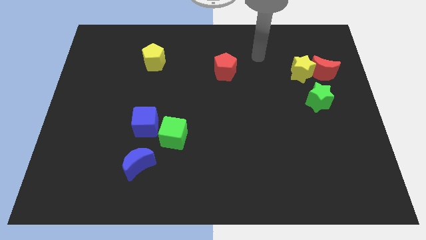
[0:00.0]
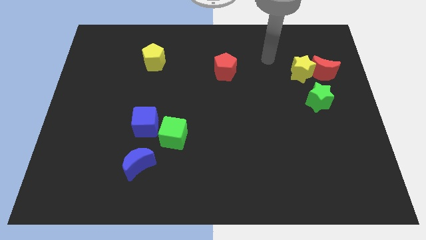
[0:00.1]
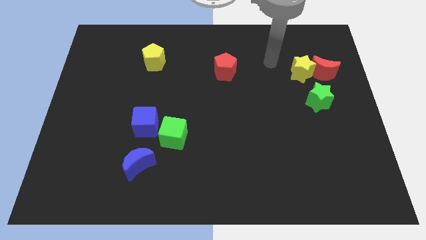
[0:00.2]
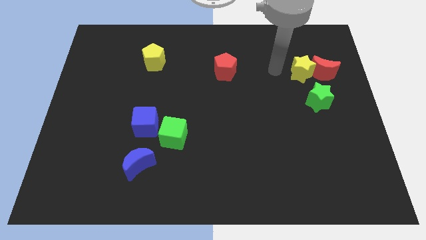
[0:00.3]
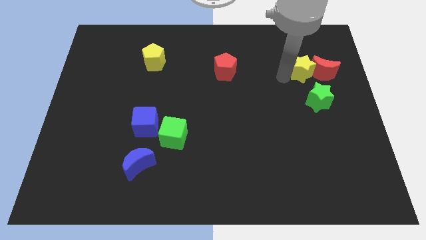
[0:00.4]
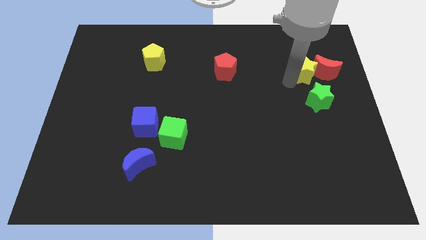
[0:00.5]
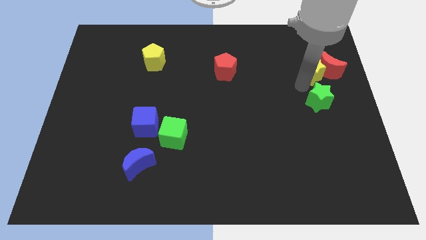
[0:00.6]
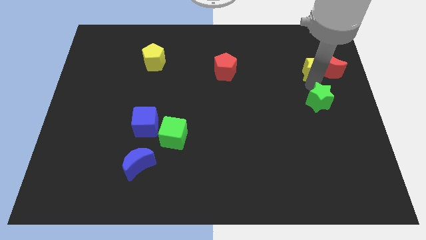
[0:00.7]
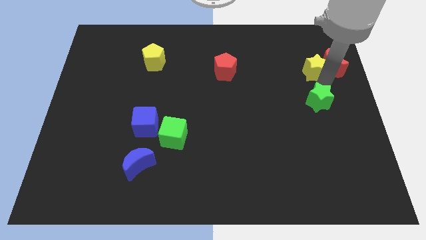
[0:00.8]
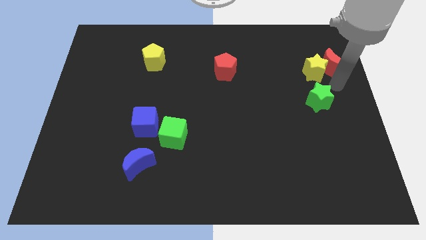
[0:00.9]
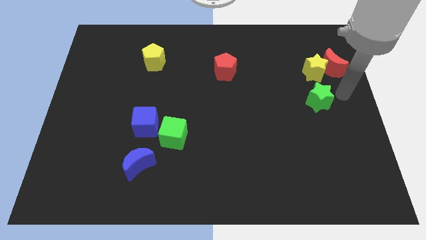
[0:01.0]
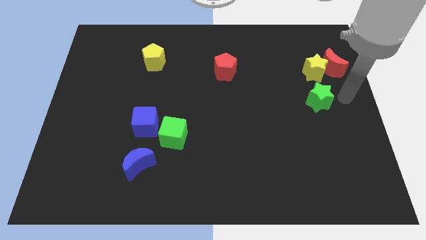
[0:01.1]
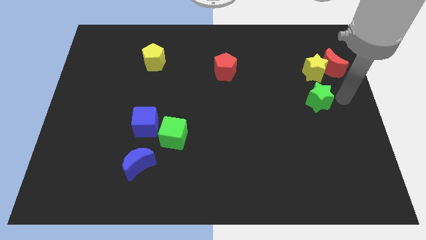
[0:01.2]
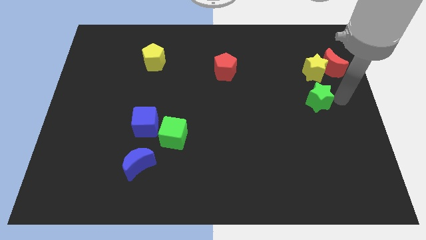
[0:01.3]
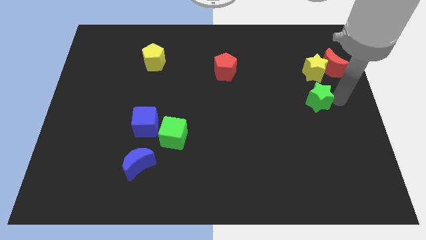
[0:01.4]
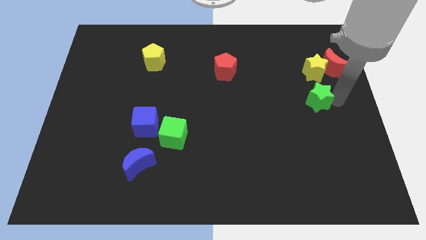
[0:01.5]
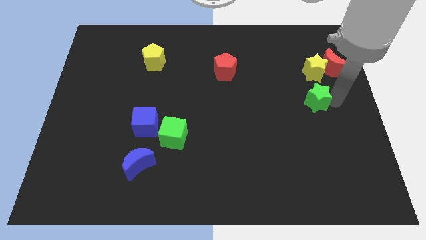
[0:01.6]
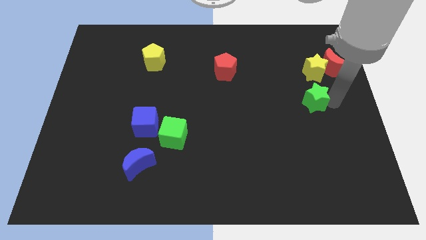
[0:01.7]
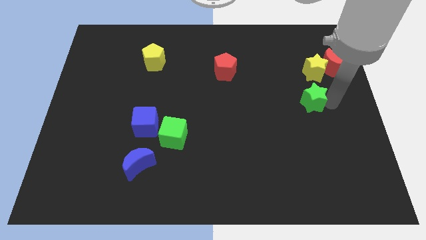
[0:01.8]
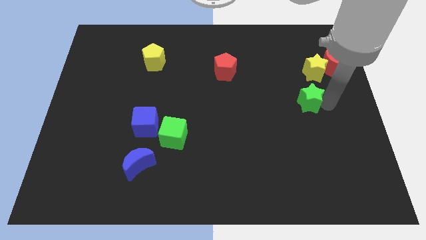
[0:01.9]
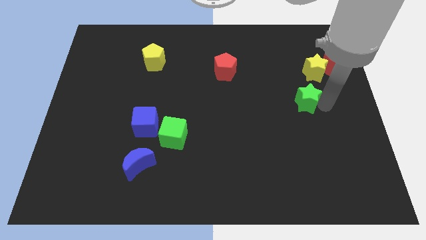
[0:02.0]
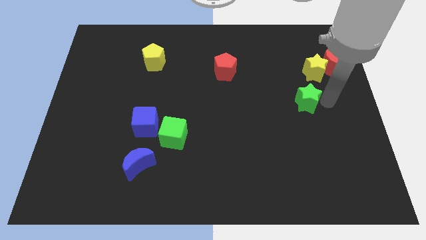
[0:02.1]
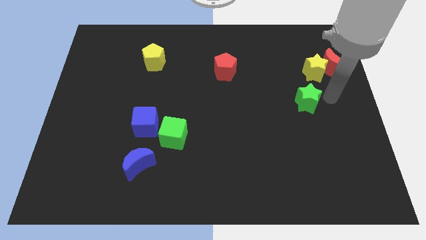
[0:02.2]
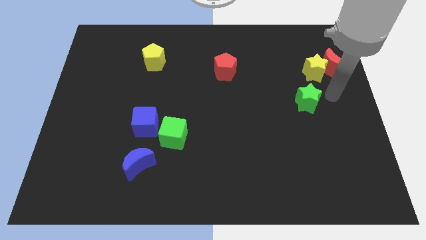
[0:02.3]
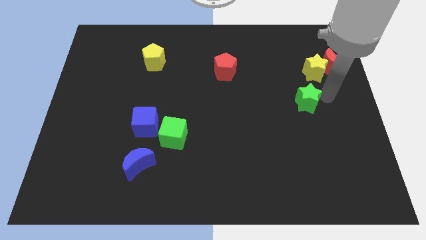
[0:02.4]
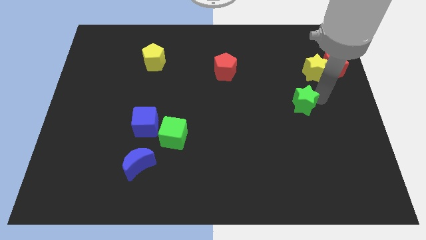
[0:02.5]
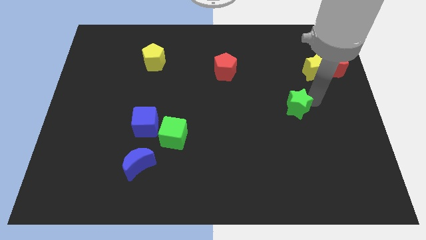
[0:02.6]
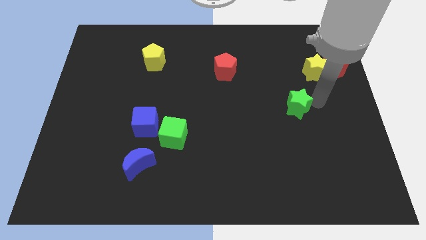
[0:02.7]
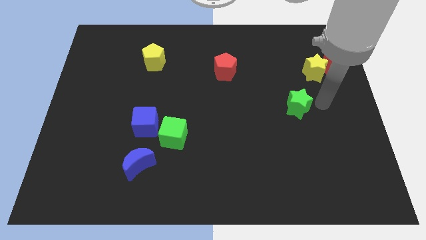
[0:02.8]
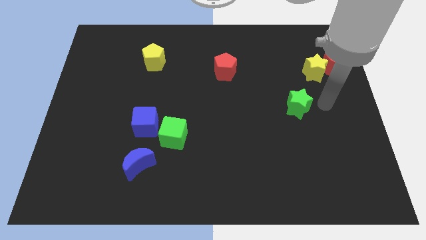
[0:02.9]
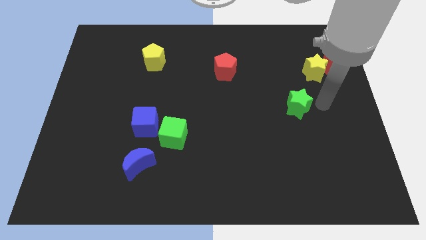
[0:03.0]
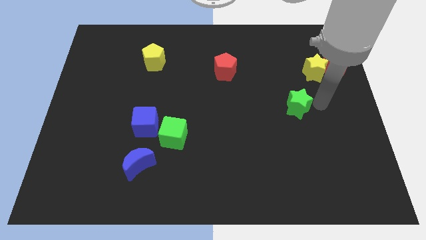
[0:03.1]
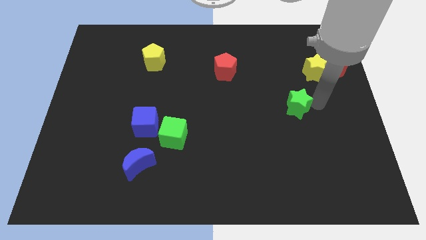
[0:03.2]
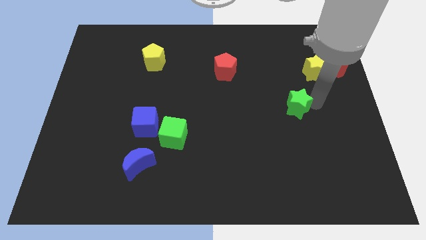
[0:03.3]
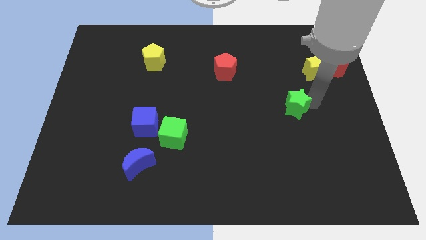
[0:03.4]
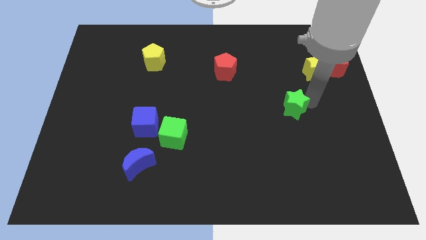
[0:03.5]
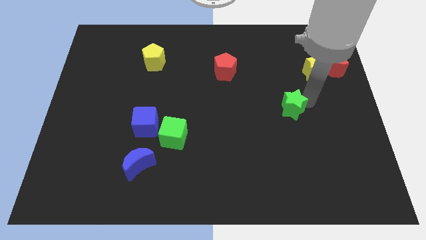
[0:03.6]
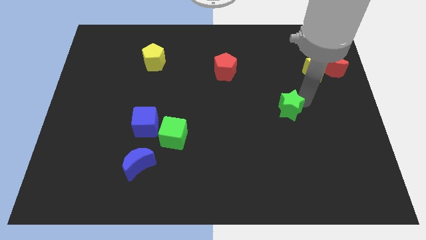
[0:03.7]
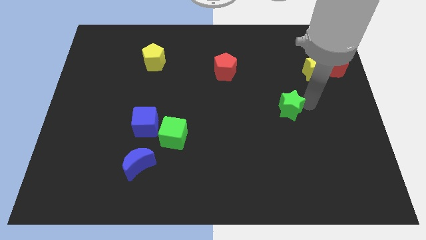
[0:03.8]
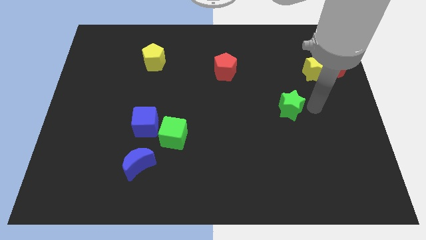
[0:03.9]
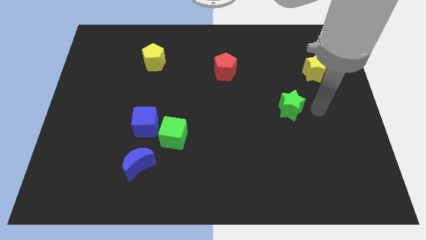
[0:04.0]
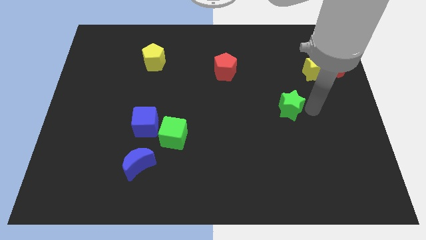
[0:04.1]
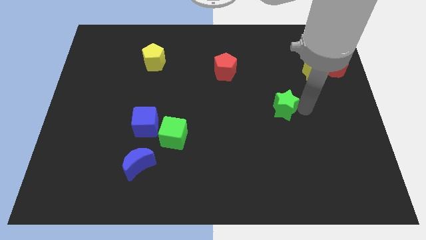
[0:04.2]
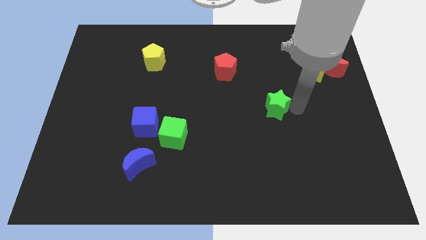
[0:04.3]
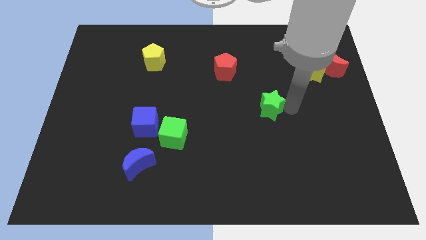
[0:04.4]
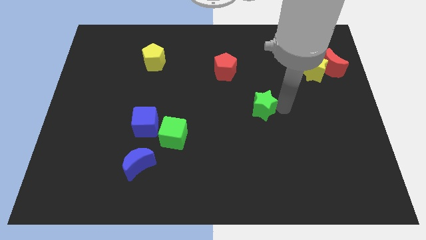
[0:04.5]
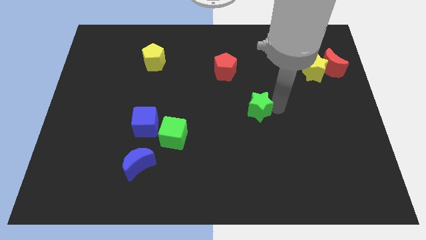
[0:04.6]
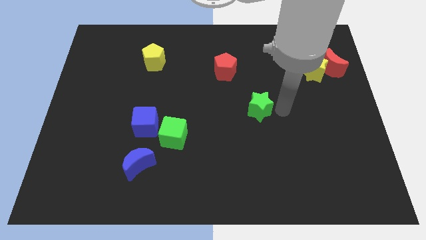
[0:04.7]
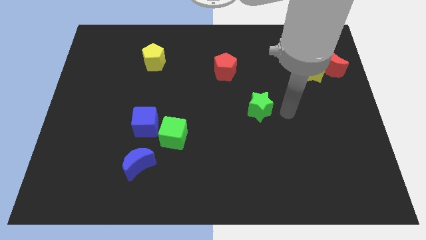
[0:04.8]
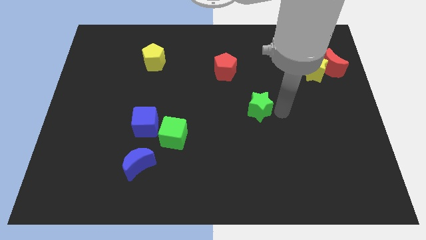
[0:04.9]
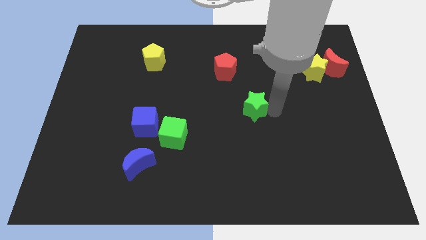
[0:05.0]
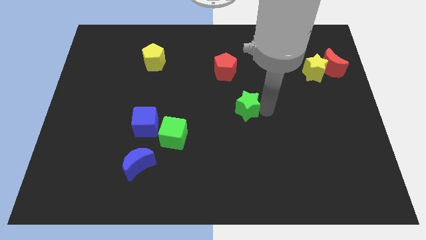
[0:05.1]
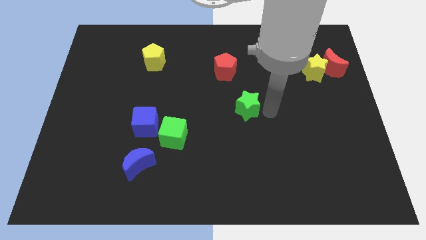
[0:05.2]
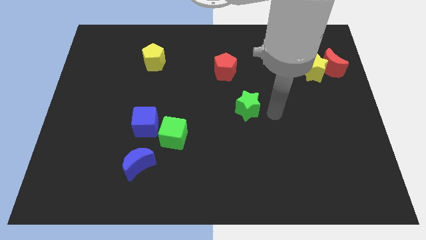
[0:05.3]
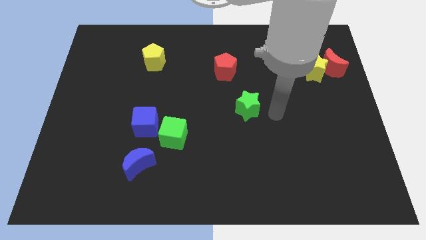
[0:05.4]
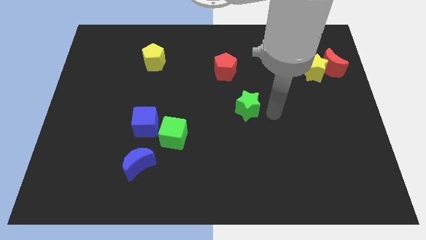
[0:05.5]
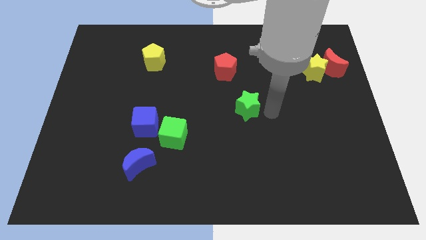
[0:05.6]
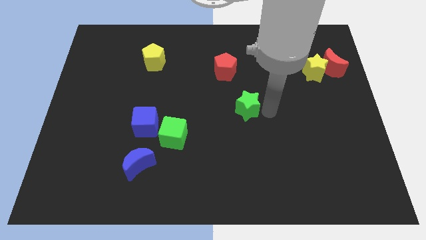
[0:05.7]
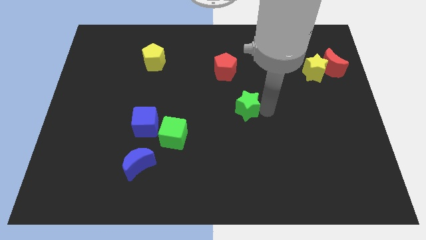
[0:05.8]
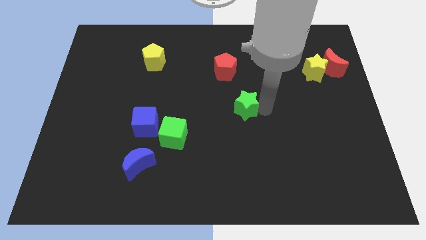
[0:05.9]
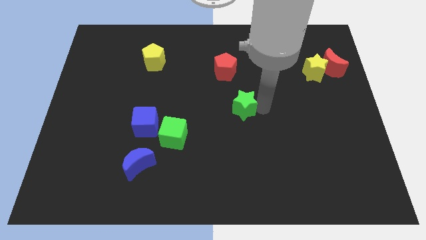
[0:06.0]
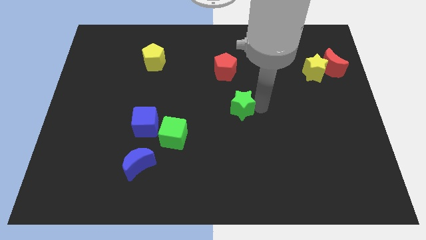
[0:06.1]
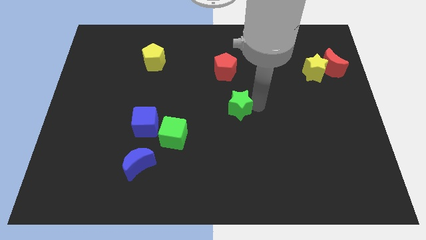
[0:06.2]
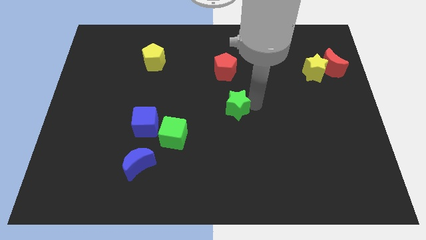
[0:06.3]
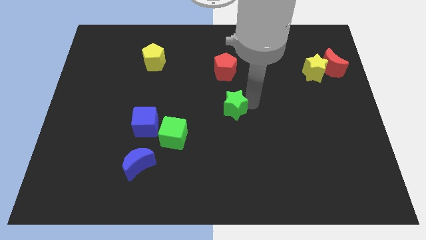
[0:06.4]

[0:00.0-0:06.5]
slide the green star left

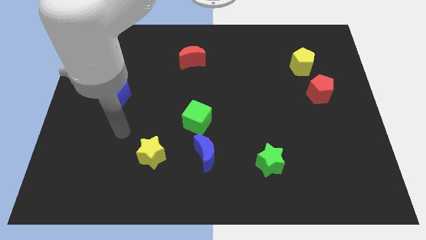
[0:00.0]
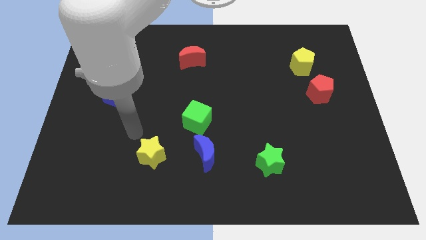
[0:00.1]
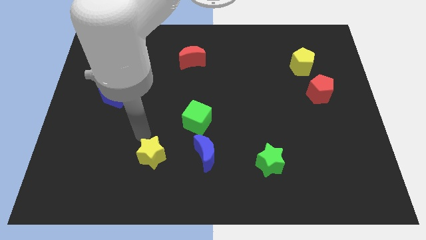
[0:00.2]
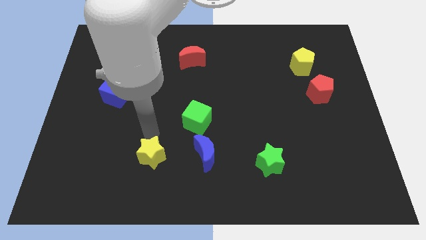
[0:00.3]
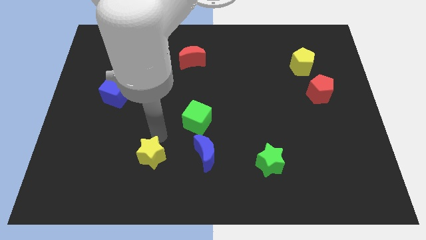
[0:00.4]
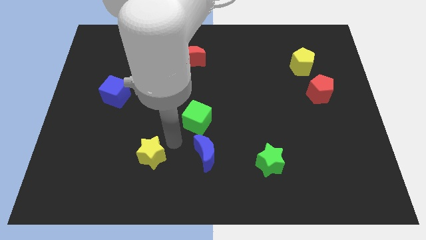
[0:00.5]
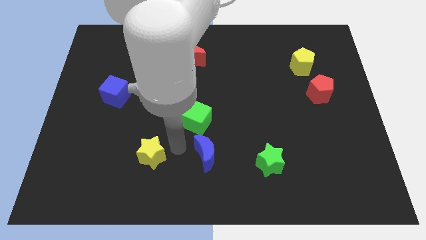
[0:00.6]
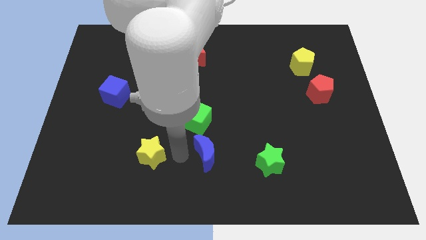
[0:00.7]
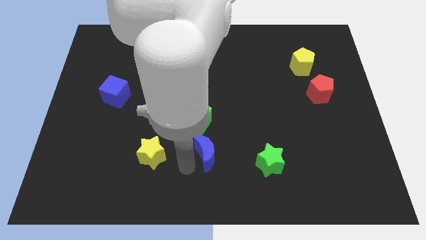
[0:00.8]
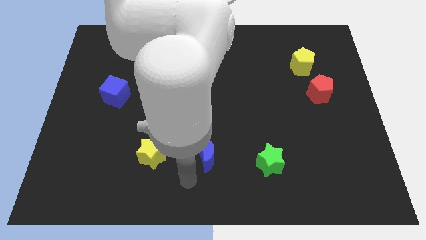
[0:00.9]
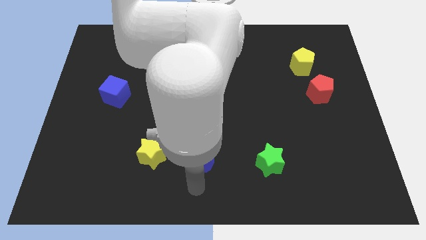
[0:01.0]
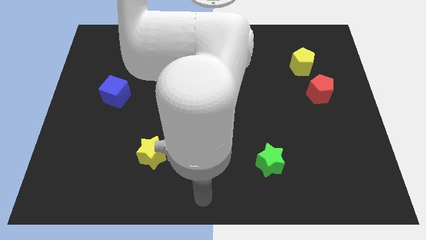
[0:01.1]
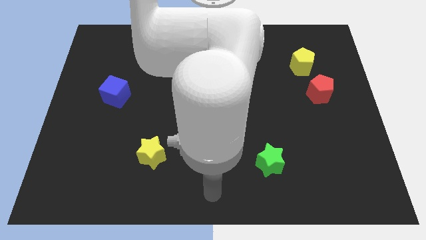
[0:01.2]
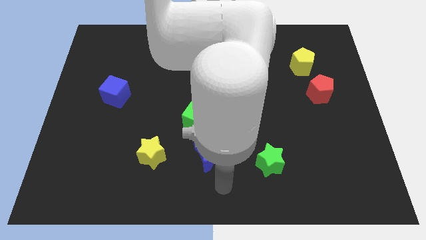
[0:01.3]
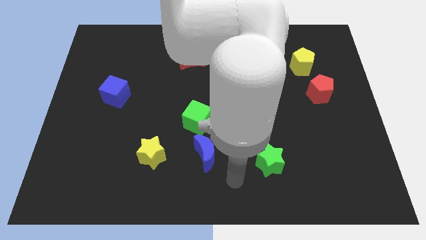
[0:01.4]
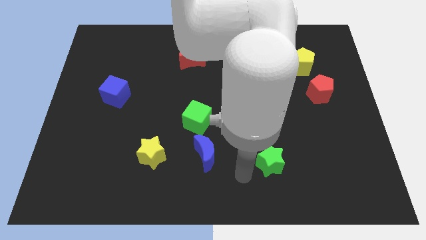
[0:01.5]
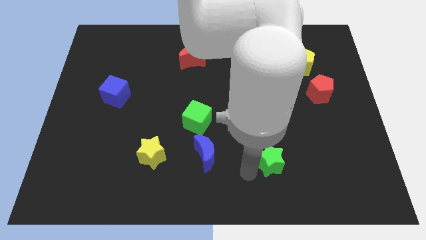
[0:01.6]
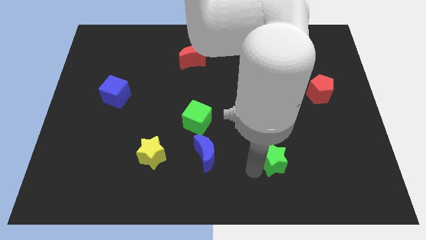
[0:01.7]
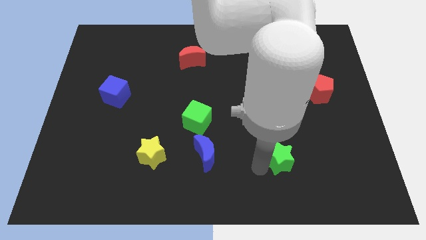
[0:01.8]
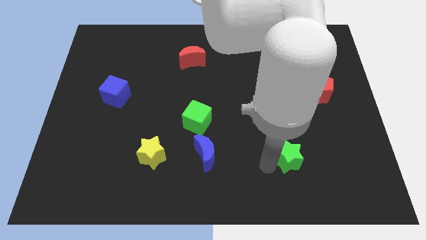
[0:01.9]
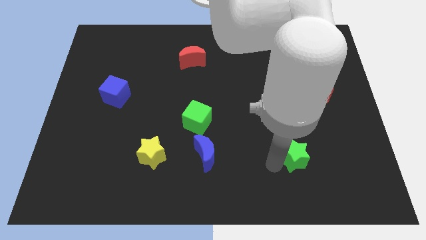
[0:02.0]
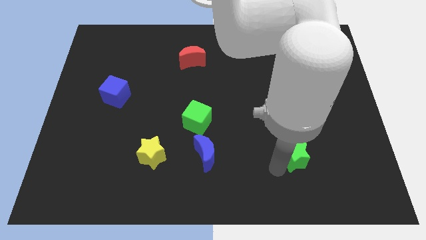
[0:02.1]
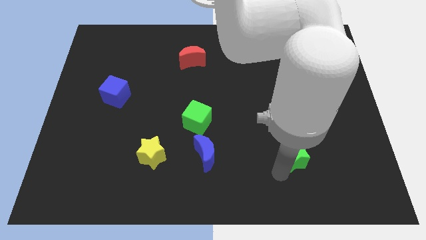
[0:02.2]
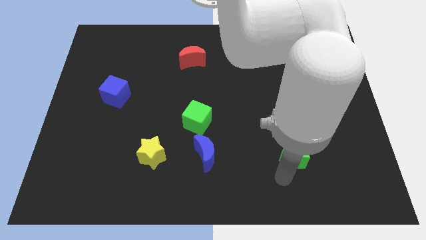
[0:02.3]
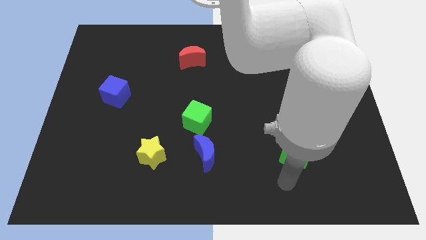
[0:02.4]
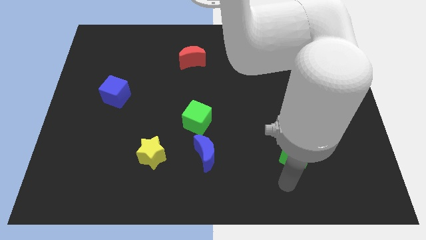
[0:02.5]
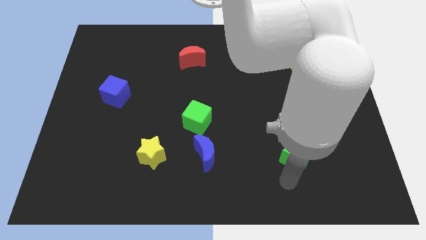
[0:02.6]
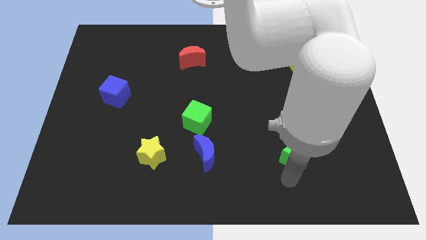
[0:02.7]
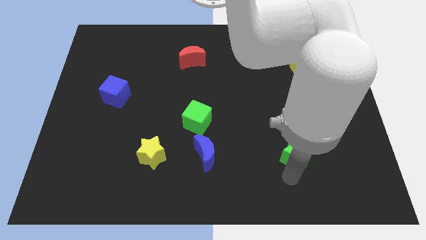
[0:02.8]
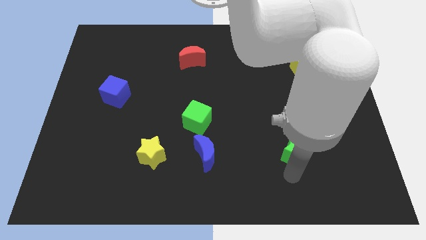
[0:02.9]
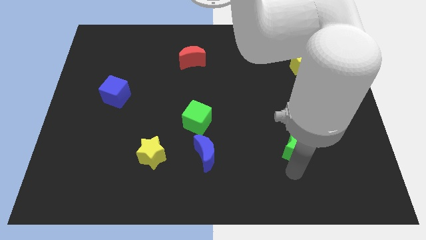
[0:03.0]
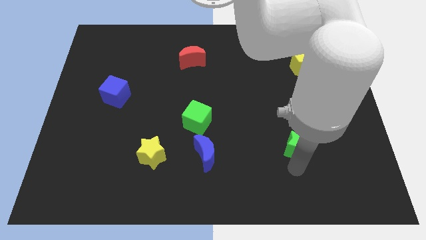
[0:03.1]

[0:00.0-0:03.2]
slide the green star a little bit up and then right
